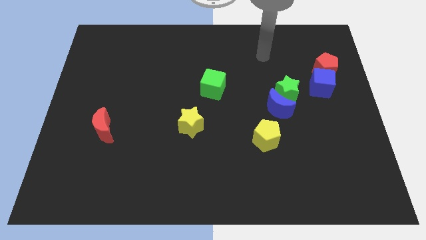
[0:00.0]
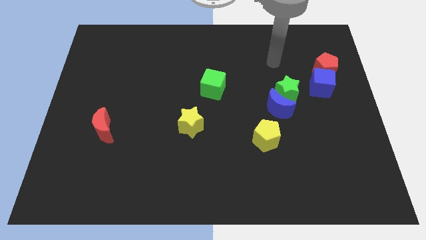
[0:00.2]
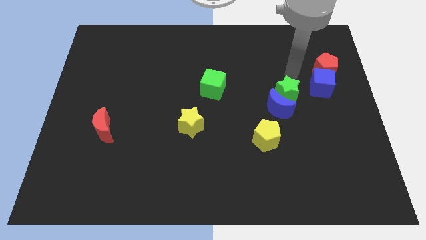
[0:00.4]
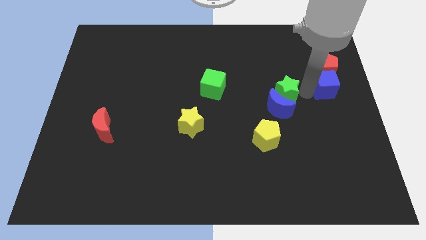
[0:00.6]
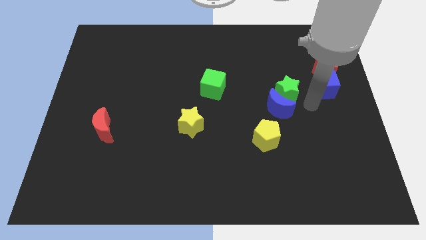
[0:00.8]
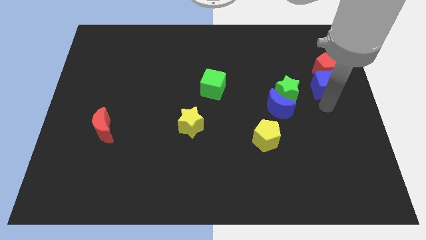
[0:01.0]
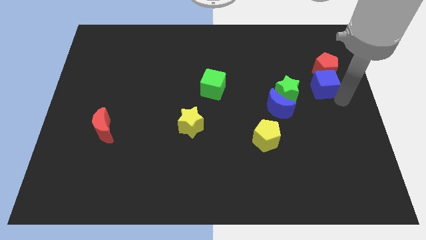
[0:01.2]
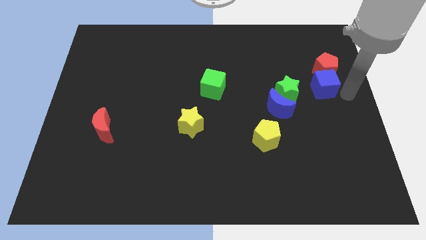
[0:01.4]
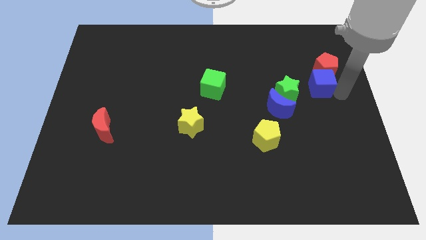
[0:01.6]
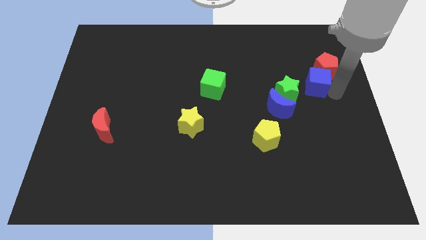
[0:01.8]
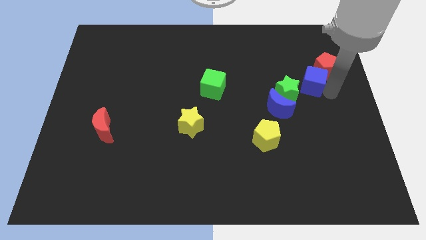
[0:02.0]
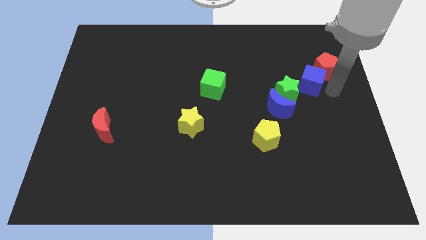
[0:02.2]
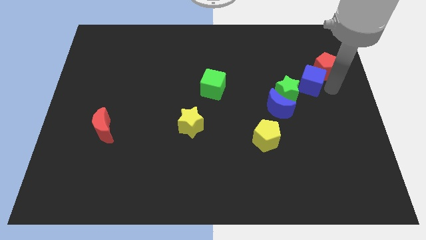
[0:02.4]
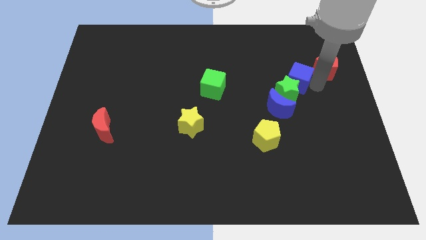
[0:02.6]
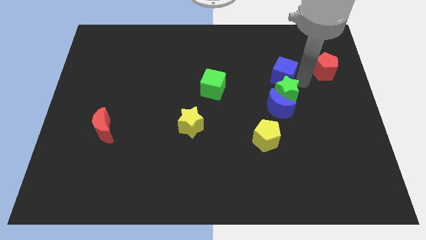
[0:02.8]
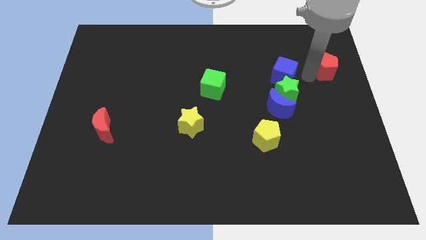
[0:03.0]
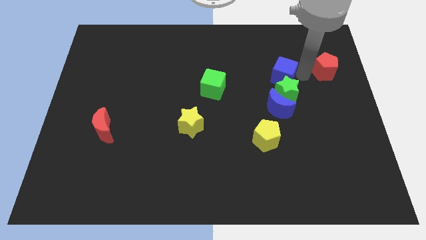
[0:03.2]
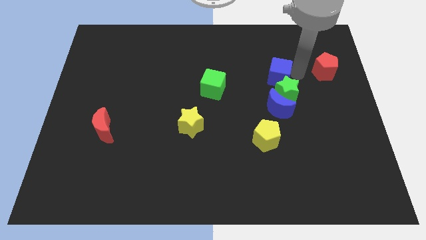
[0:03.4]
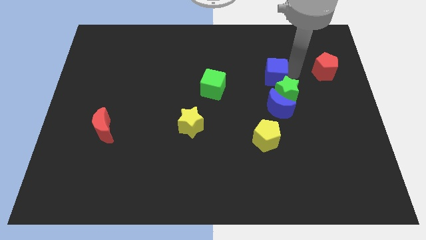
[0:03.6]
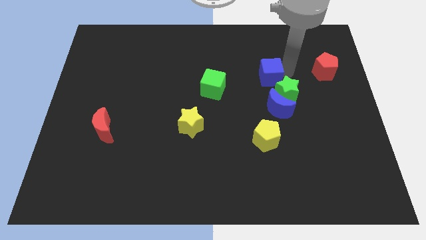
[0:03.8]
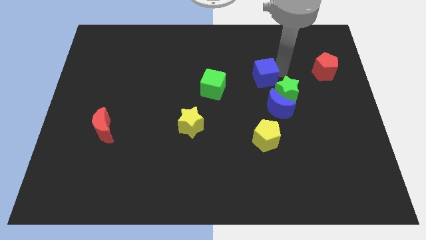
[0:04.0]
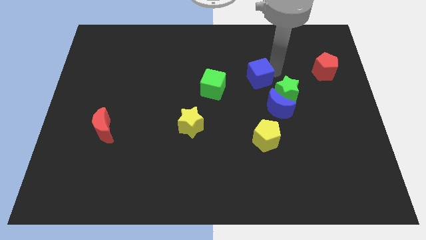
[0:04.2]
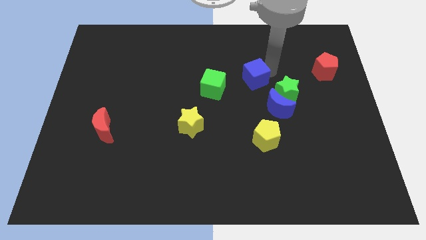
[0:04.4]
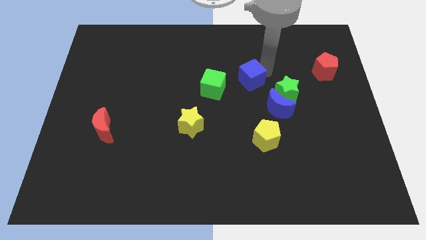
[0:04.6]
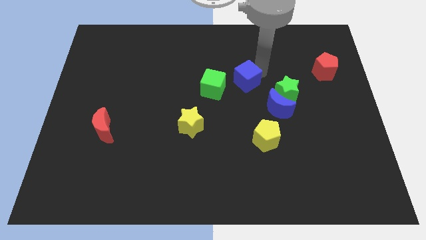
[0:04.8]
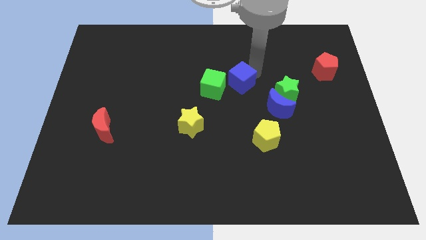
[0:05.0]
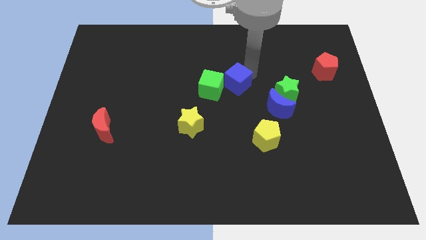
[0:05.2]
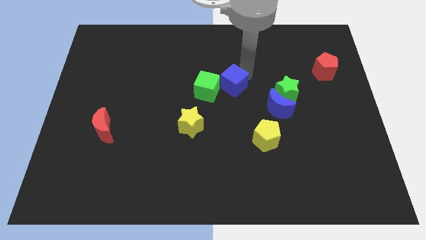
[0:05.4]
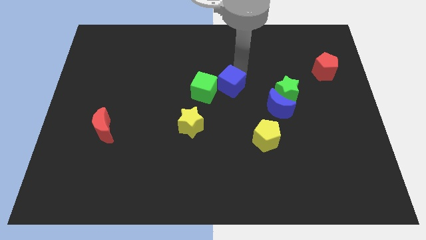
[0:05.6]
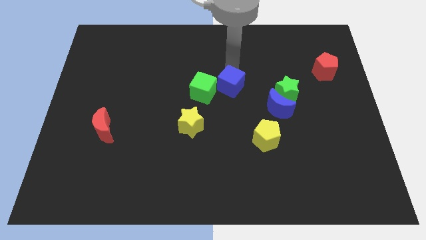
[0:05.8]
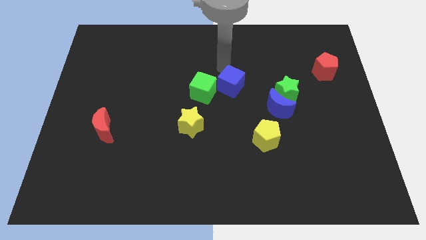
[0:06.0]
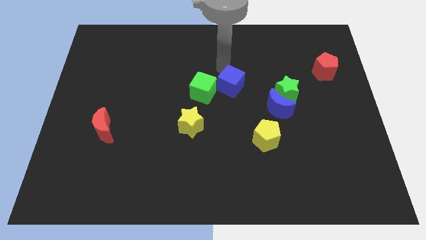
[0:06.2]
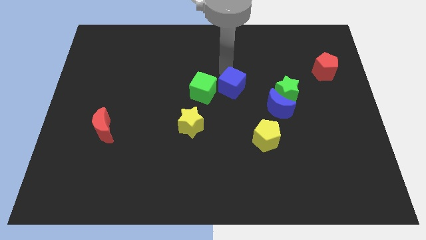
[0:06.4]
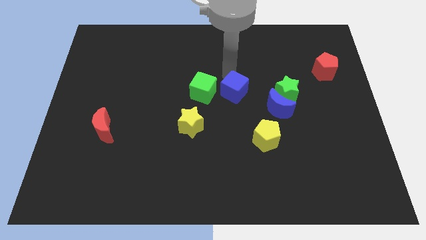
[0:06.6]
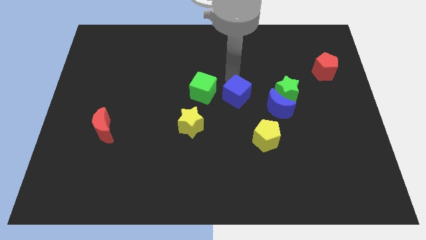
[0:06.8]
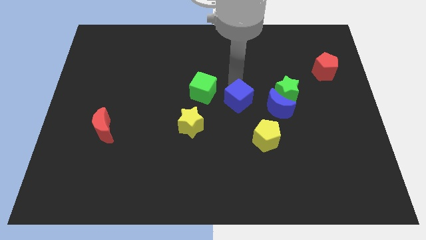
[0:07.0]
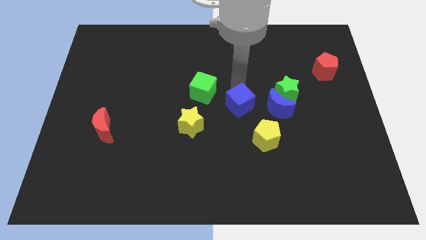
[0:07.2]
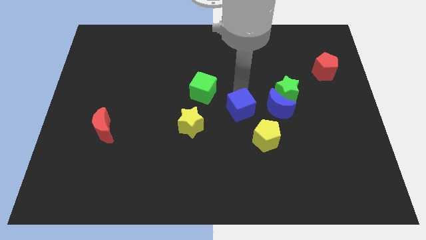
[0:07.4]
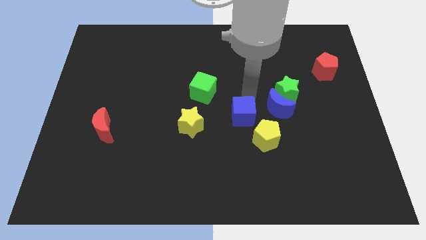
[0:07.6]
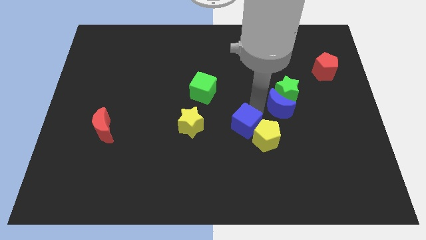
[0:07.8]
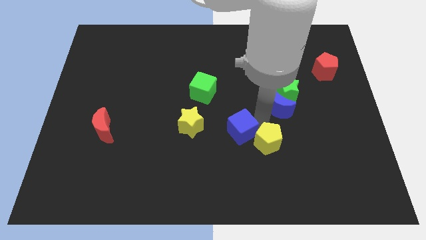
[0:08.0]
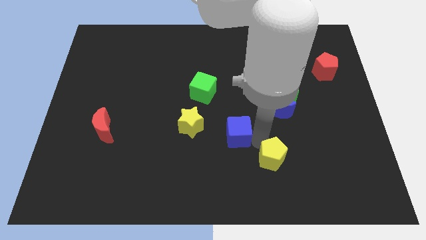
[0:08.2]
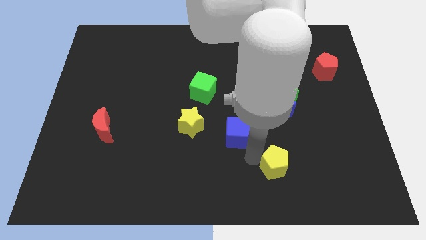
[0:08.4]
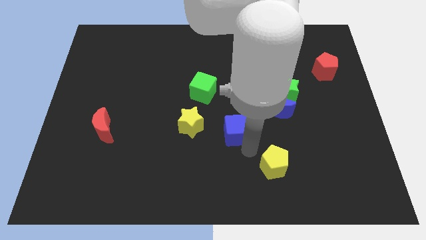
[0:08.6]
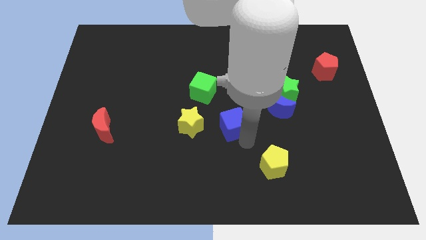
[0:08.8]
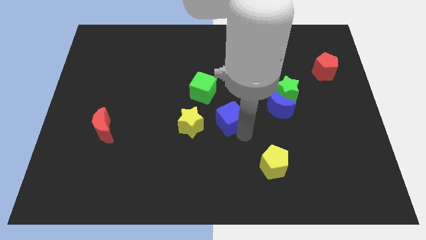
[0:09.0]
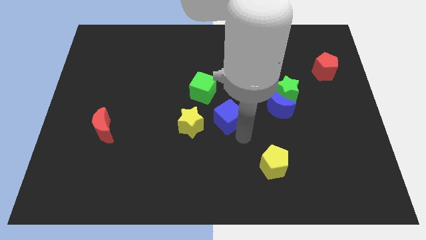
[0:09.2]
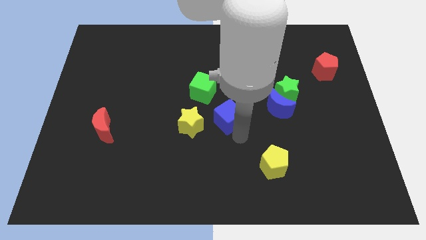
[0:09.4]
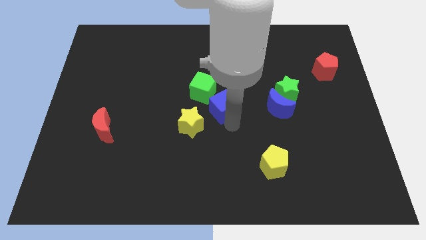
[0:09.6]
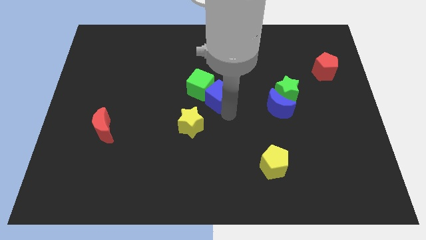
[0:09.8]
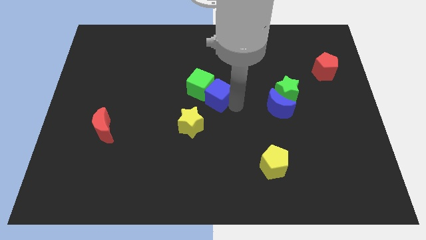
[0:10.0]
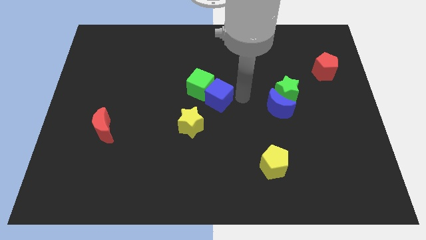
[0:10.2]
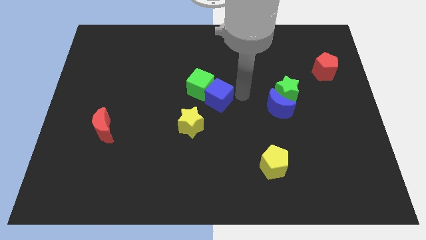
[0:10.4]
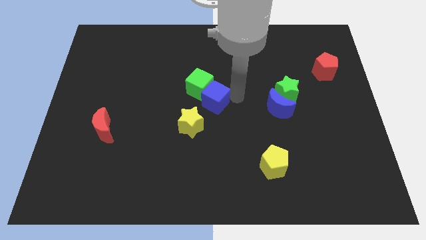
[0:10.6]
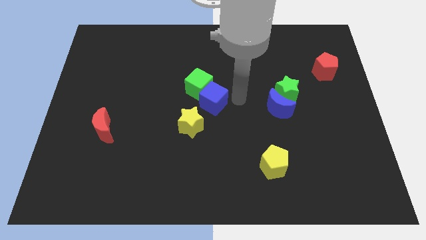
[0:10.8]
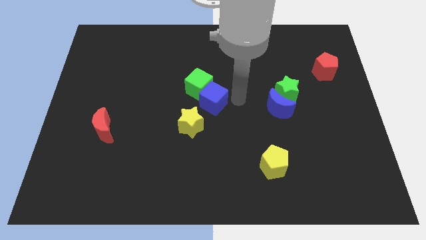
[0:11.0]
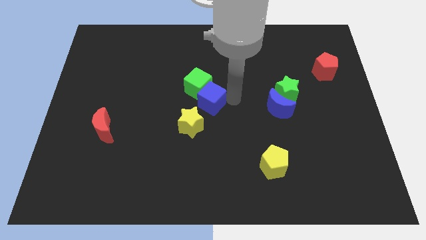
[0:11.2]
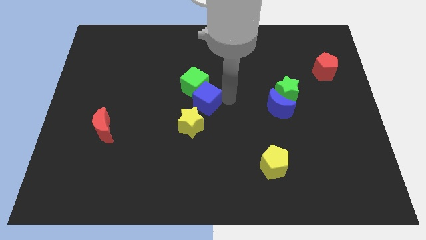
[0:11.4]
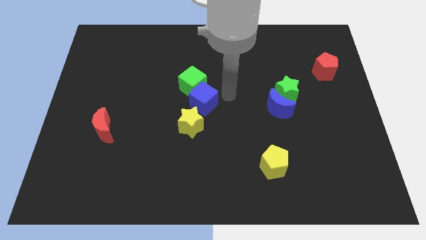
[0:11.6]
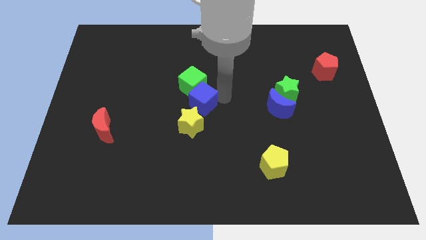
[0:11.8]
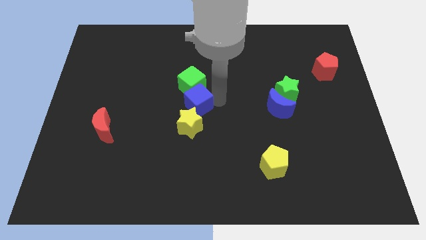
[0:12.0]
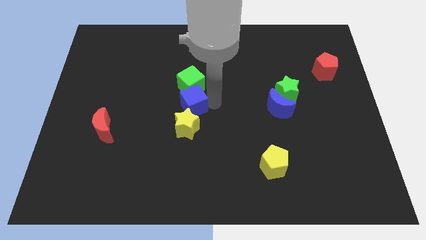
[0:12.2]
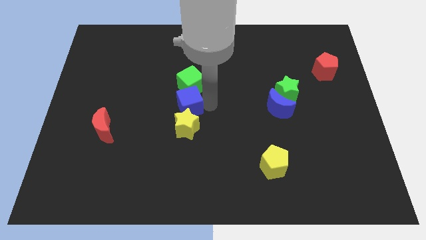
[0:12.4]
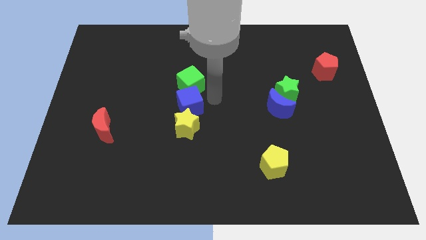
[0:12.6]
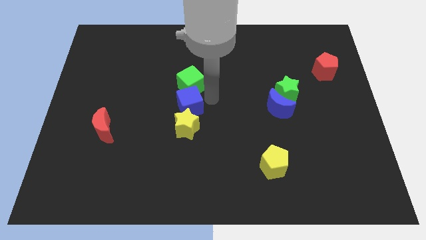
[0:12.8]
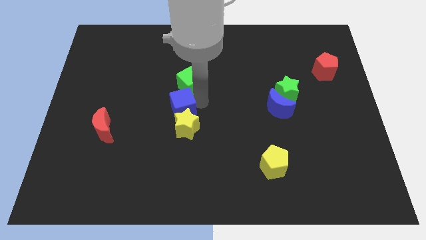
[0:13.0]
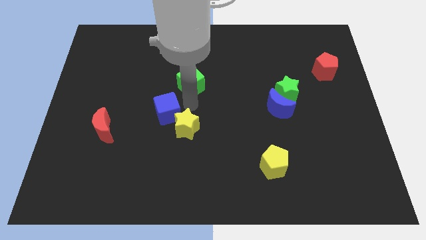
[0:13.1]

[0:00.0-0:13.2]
put the blue cube just left of the yellow star
